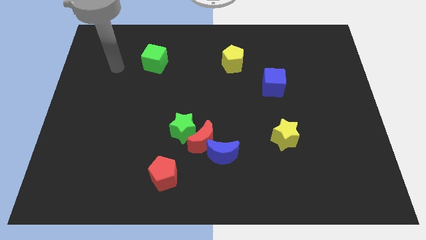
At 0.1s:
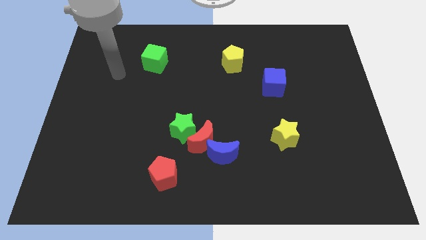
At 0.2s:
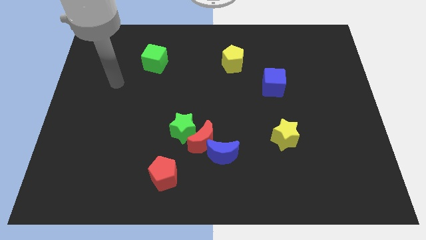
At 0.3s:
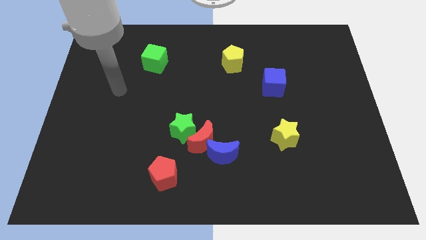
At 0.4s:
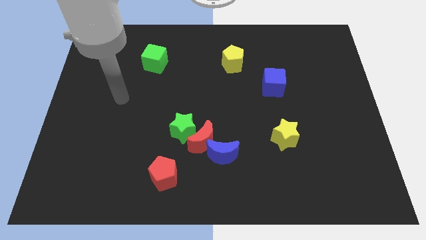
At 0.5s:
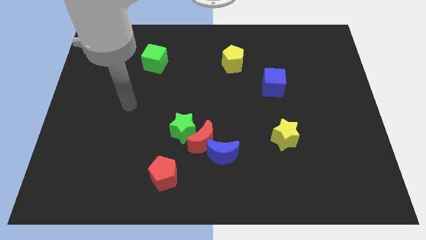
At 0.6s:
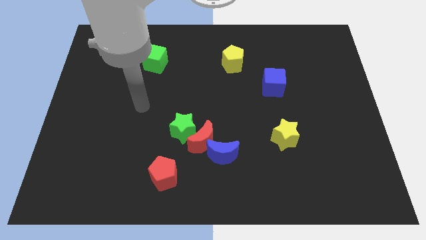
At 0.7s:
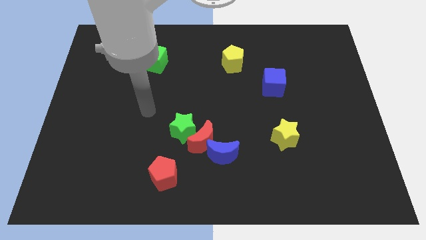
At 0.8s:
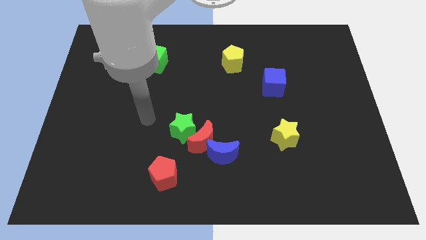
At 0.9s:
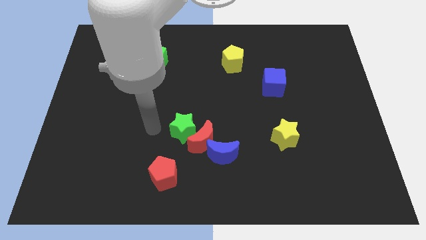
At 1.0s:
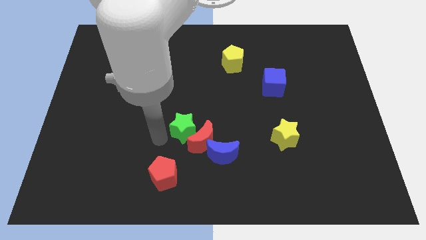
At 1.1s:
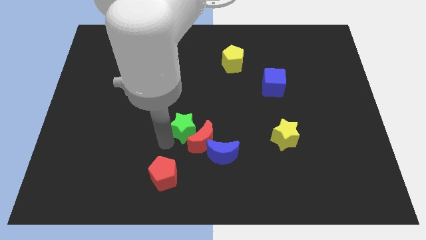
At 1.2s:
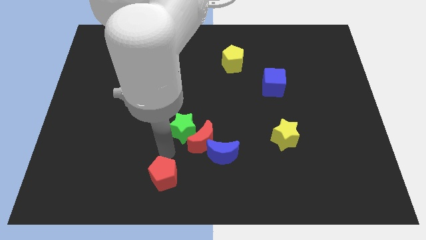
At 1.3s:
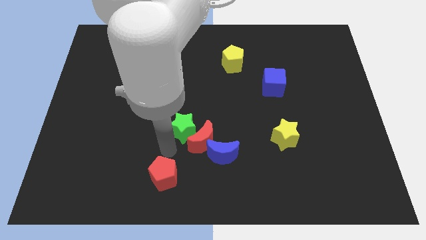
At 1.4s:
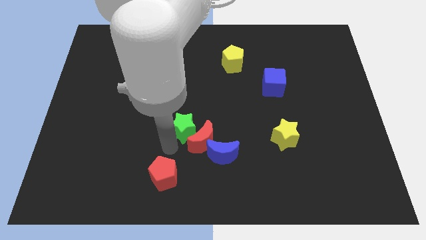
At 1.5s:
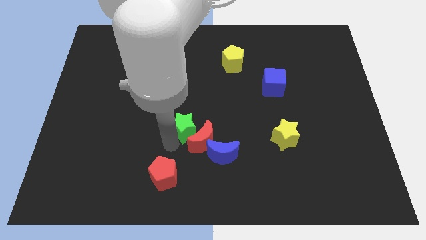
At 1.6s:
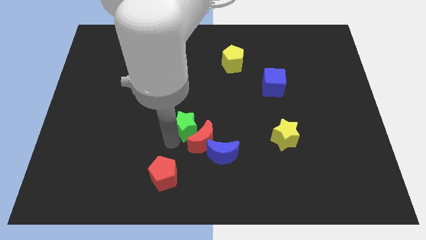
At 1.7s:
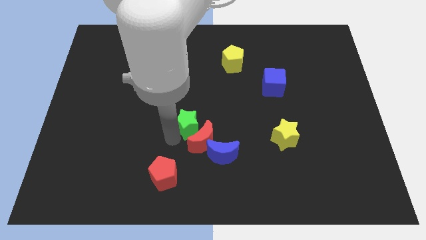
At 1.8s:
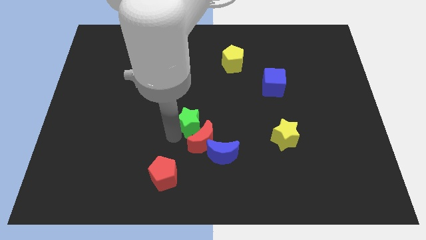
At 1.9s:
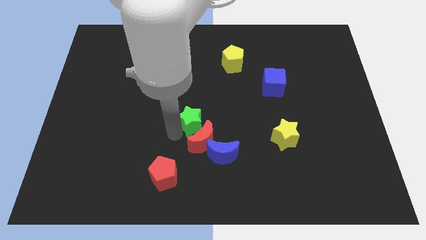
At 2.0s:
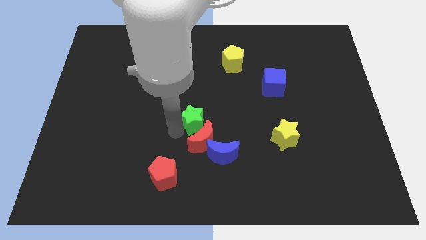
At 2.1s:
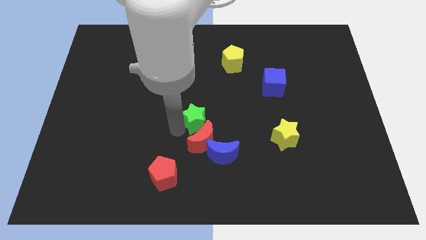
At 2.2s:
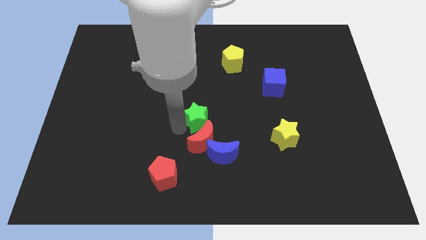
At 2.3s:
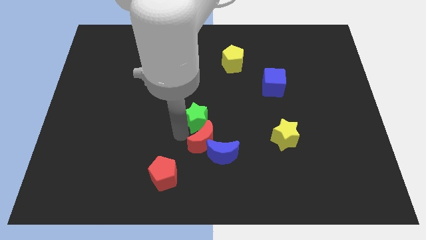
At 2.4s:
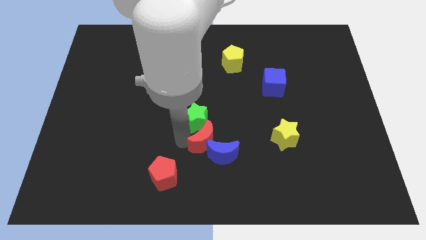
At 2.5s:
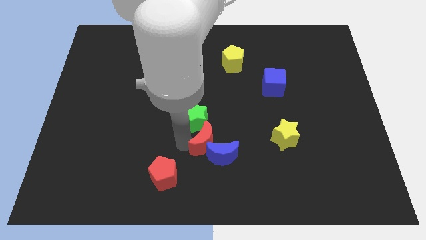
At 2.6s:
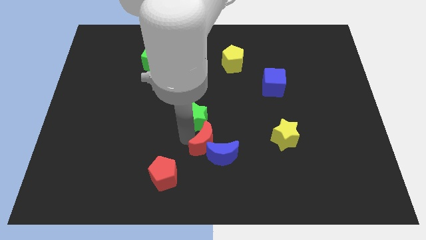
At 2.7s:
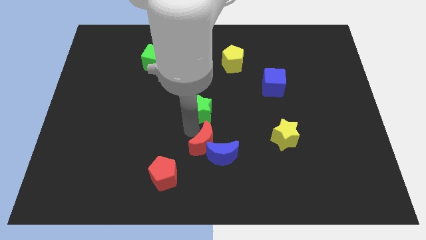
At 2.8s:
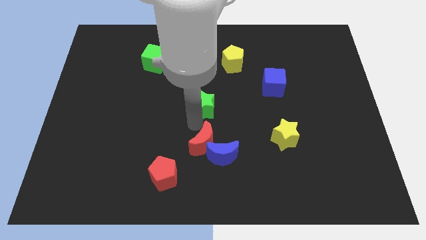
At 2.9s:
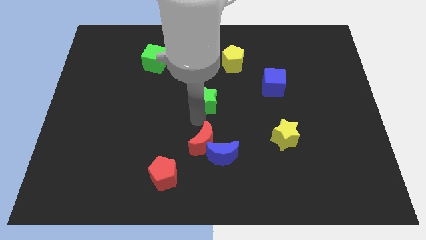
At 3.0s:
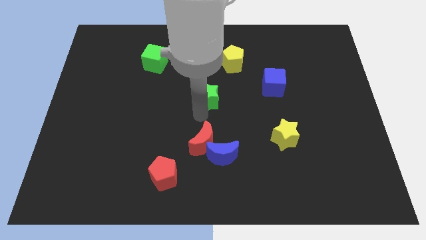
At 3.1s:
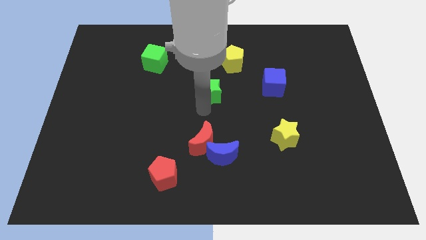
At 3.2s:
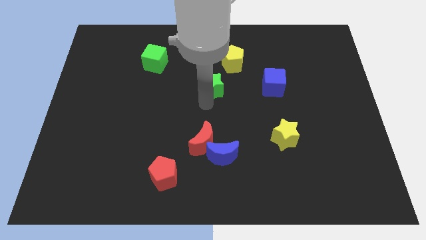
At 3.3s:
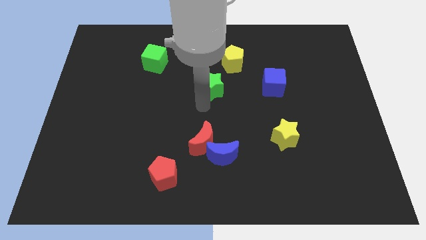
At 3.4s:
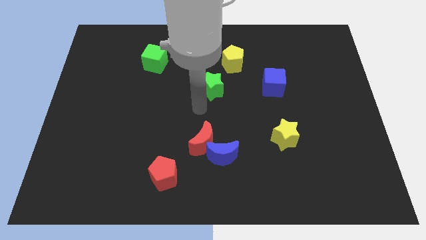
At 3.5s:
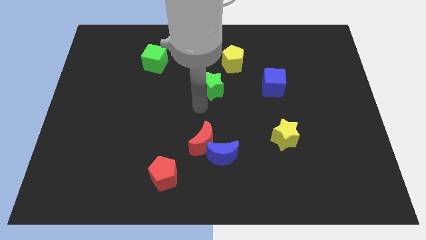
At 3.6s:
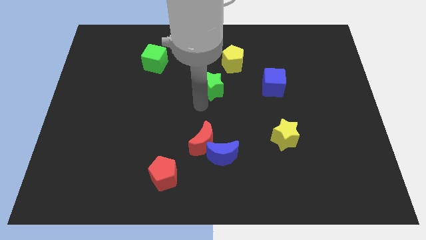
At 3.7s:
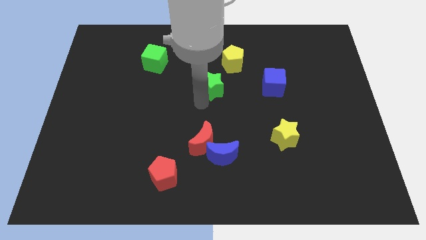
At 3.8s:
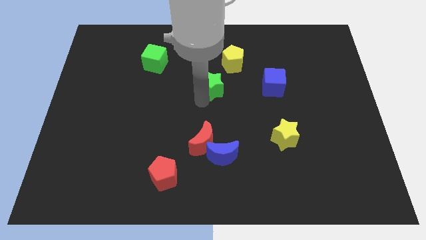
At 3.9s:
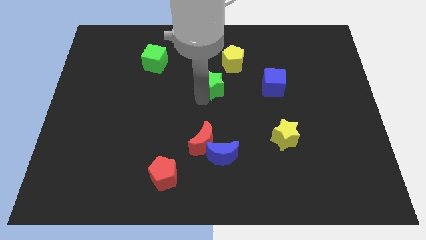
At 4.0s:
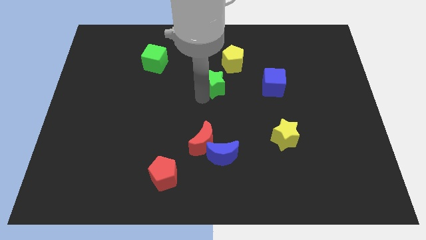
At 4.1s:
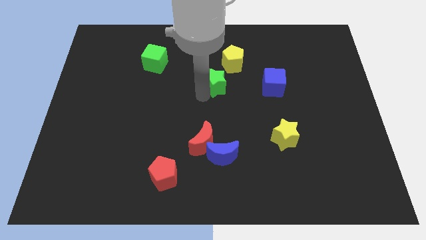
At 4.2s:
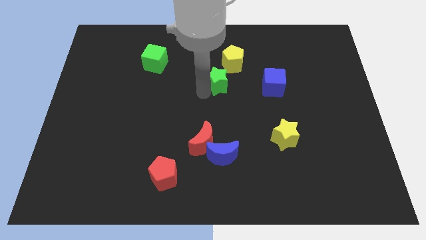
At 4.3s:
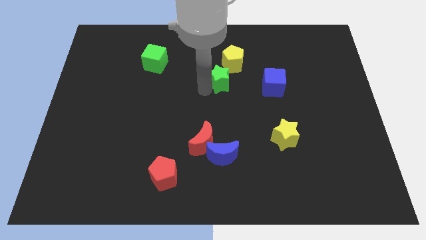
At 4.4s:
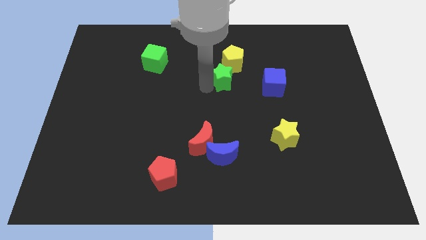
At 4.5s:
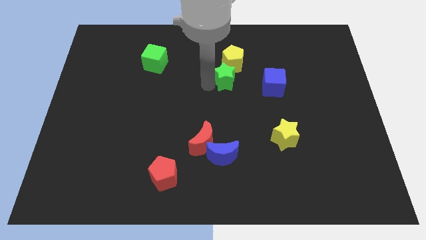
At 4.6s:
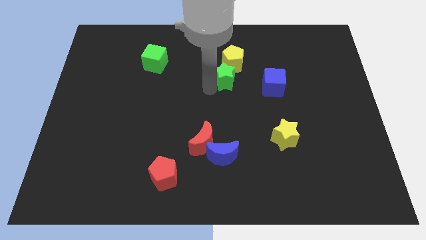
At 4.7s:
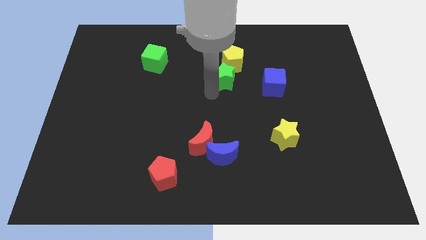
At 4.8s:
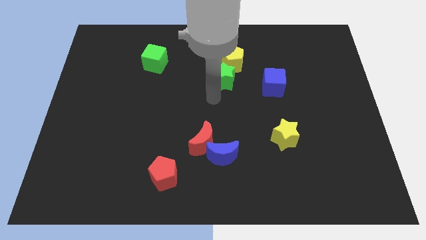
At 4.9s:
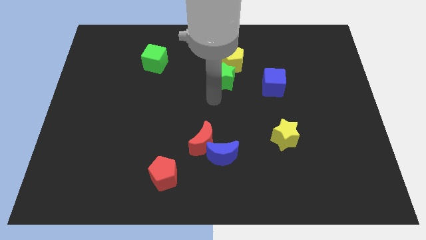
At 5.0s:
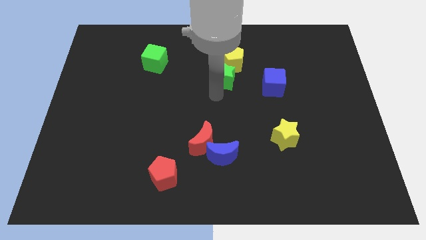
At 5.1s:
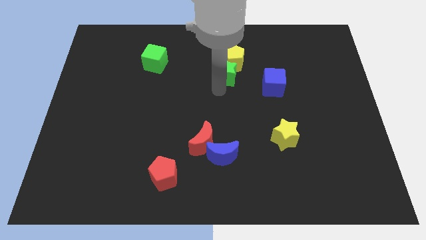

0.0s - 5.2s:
move the green star close to the yellow pentagon

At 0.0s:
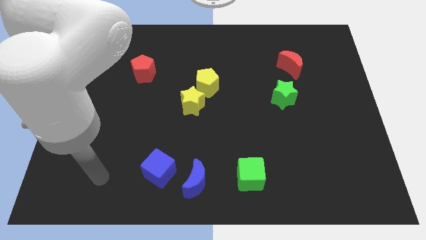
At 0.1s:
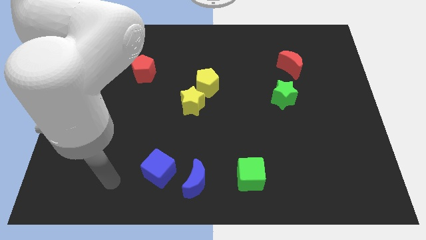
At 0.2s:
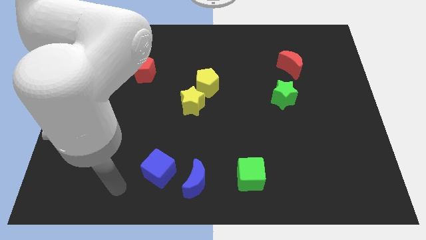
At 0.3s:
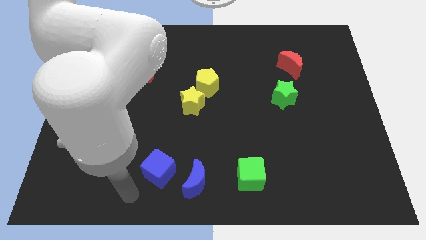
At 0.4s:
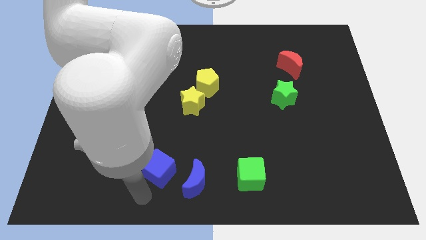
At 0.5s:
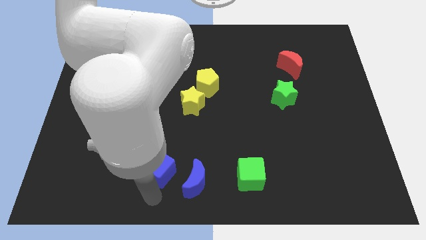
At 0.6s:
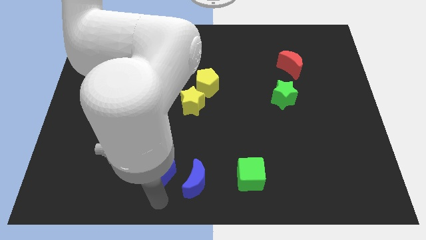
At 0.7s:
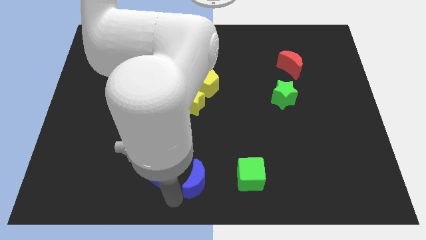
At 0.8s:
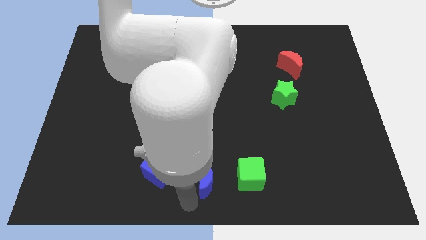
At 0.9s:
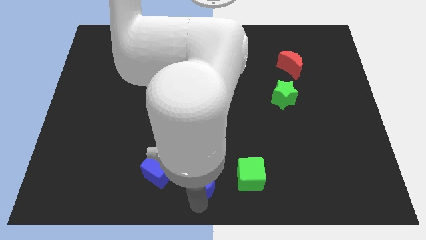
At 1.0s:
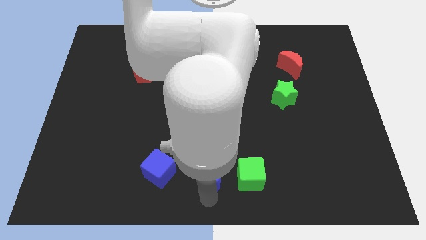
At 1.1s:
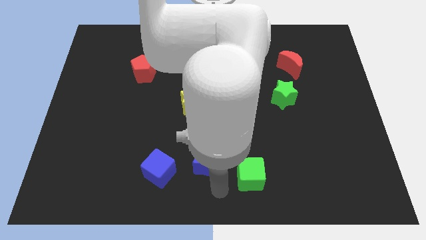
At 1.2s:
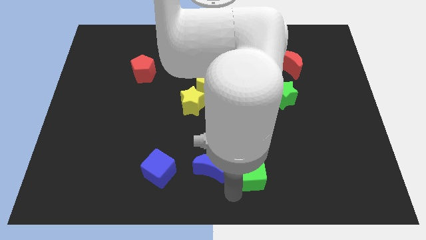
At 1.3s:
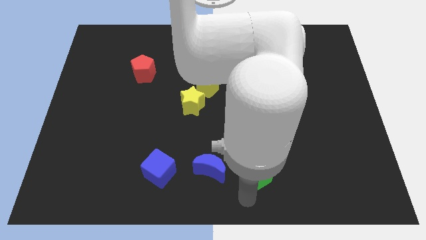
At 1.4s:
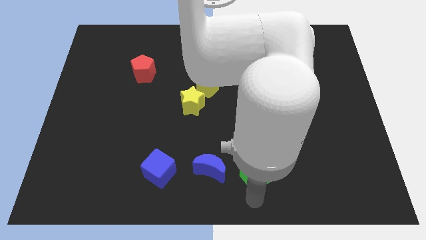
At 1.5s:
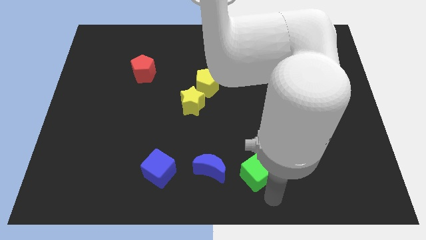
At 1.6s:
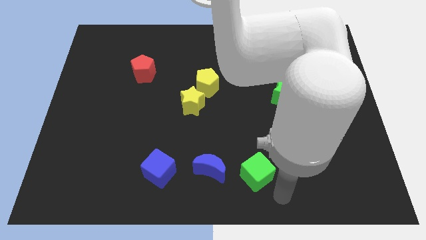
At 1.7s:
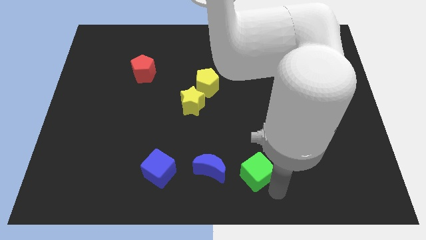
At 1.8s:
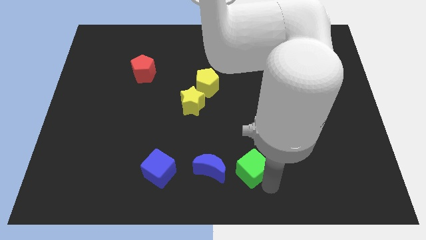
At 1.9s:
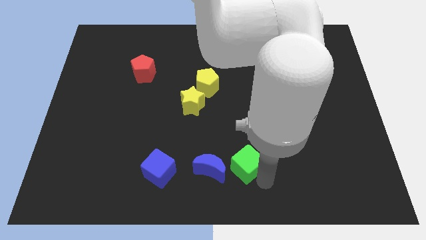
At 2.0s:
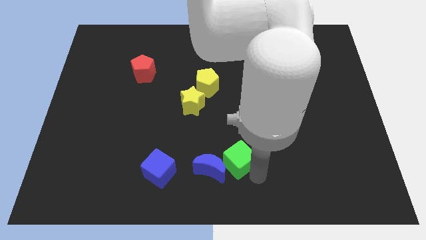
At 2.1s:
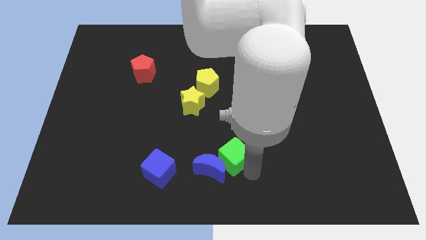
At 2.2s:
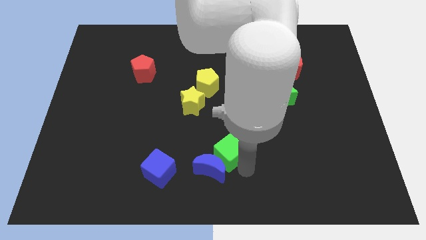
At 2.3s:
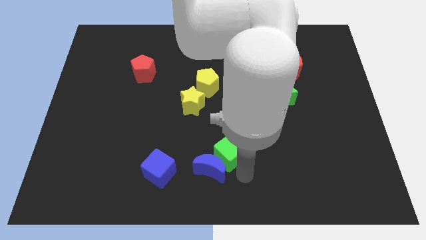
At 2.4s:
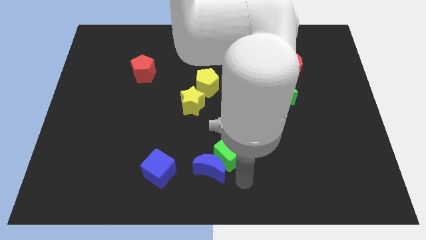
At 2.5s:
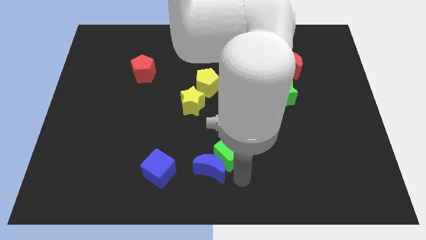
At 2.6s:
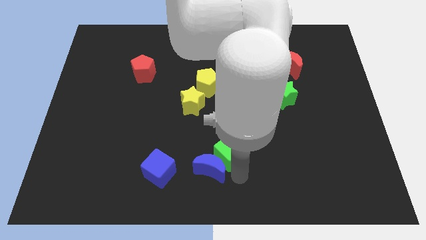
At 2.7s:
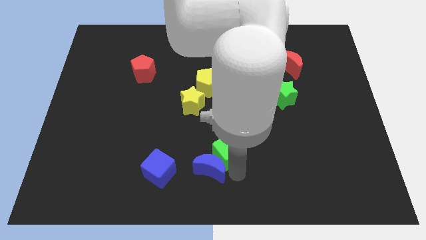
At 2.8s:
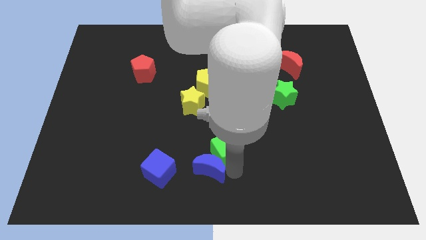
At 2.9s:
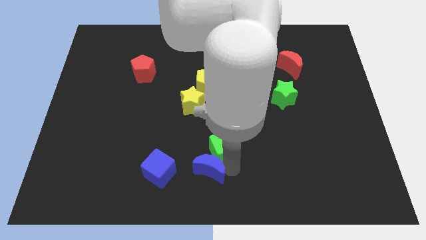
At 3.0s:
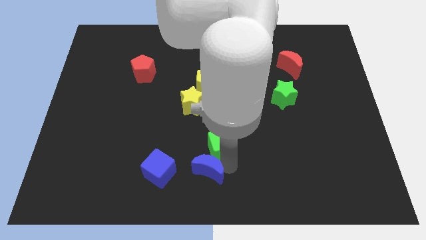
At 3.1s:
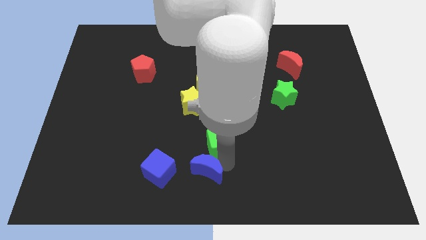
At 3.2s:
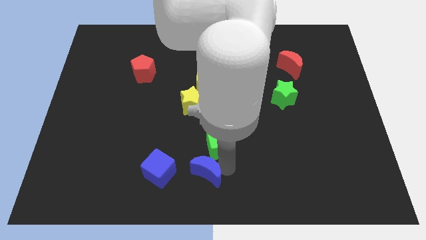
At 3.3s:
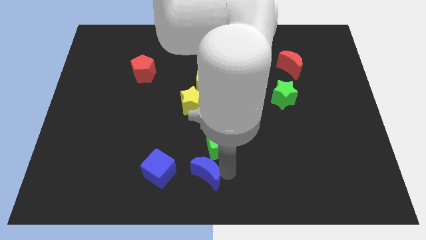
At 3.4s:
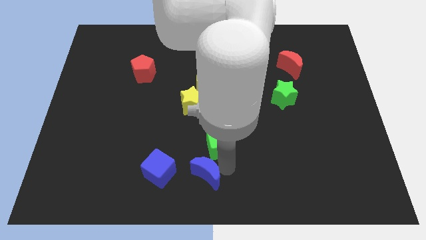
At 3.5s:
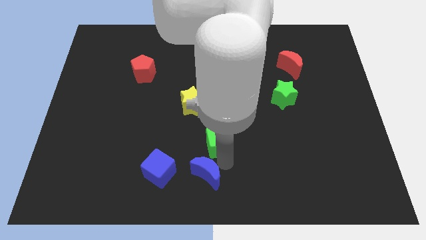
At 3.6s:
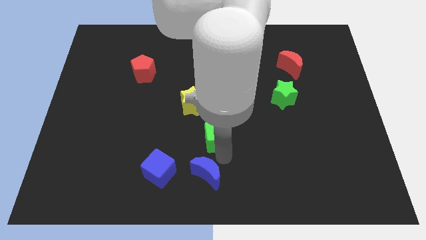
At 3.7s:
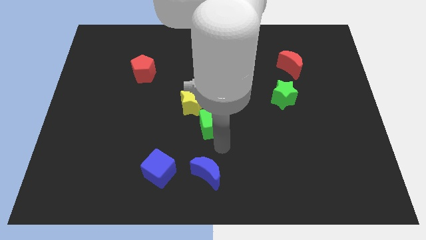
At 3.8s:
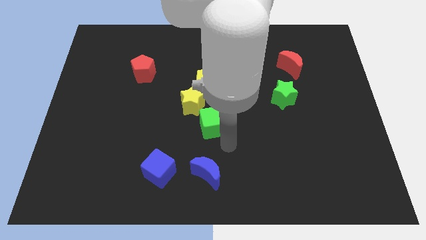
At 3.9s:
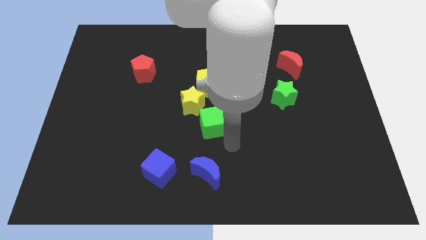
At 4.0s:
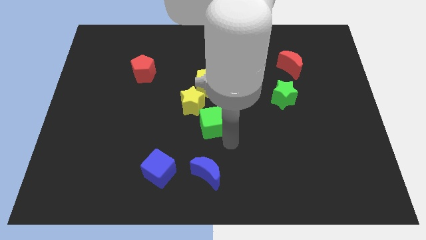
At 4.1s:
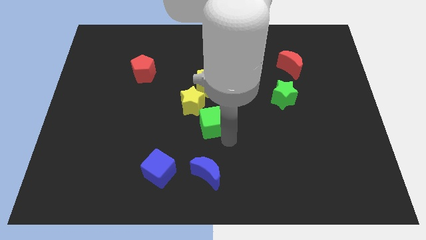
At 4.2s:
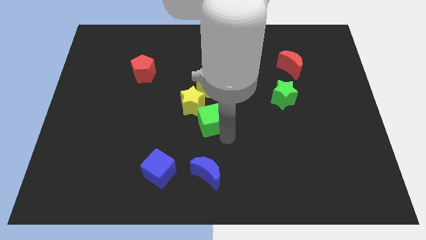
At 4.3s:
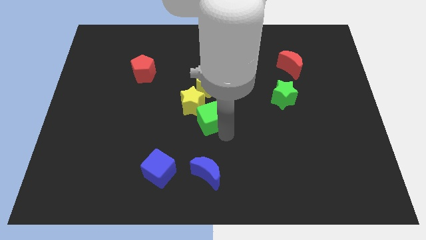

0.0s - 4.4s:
move the green cube to the yellow star
